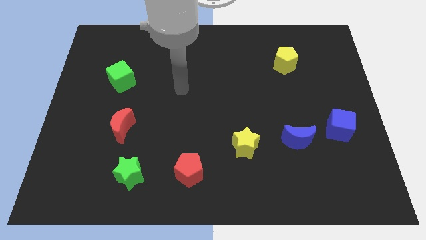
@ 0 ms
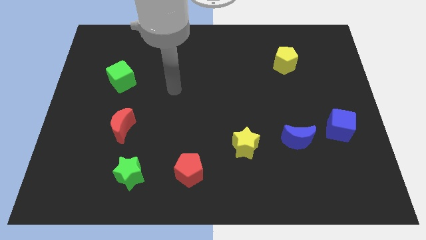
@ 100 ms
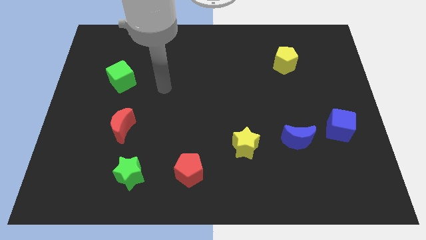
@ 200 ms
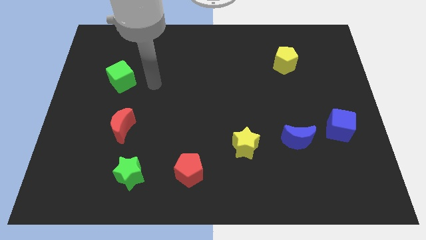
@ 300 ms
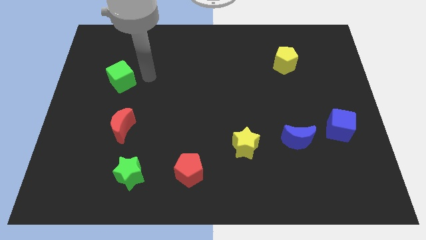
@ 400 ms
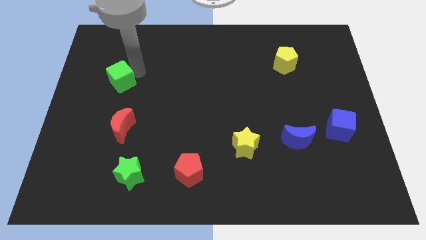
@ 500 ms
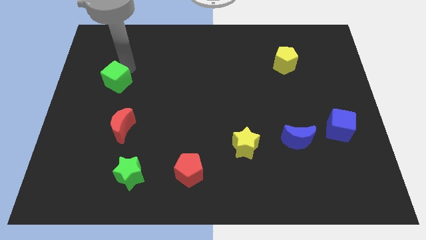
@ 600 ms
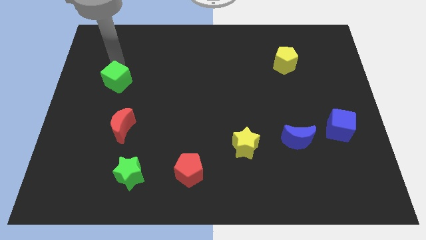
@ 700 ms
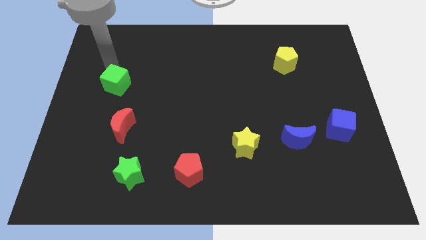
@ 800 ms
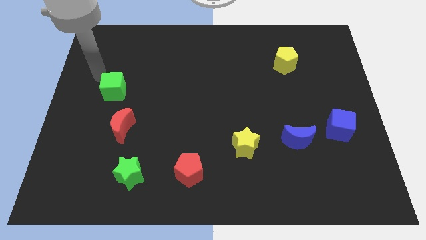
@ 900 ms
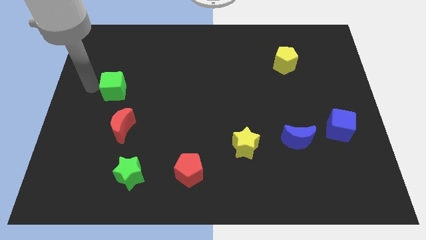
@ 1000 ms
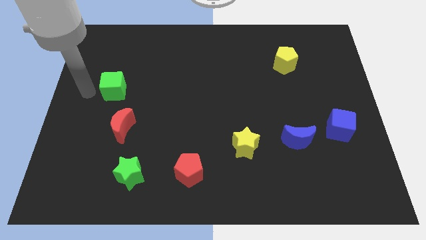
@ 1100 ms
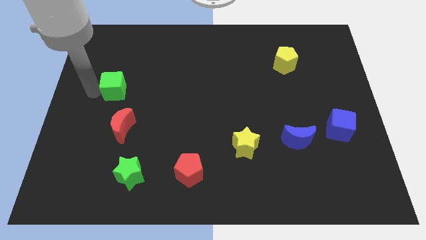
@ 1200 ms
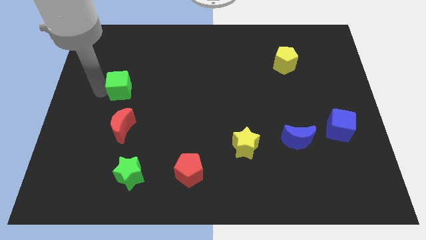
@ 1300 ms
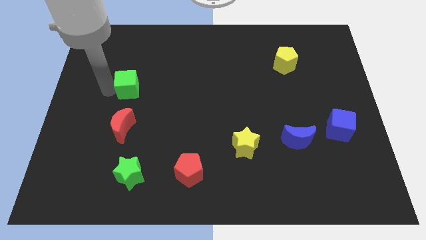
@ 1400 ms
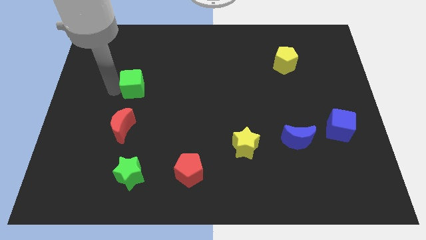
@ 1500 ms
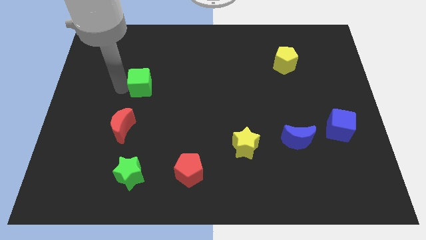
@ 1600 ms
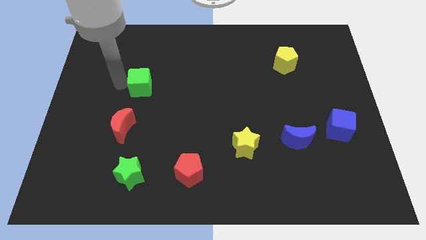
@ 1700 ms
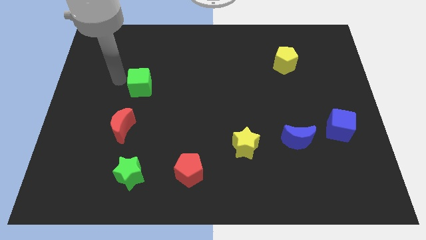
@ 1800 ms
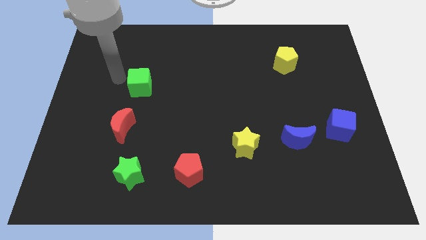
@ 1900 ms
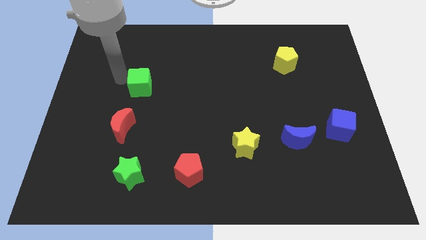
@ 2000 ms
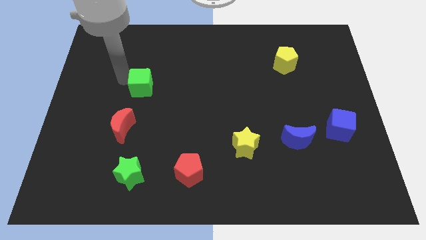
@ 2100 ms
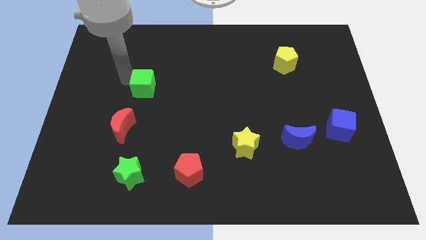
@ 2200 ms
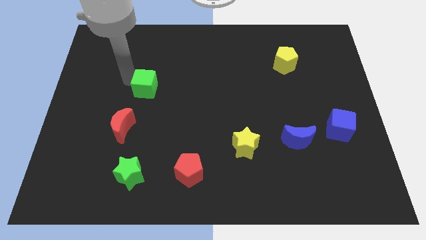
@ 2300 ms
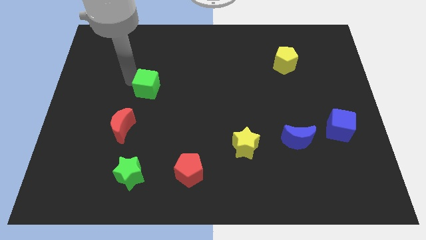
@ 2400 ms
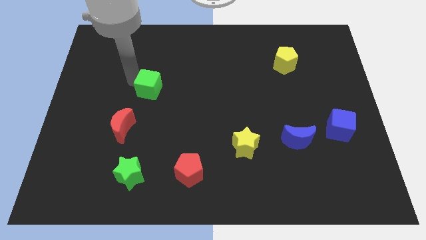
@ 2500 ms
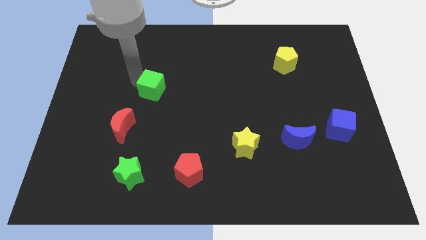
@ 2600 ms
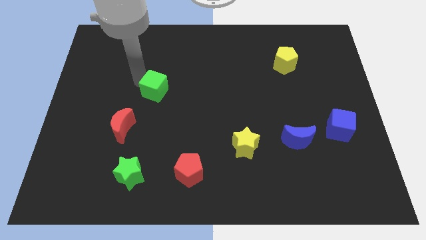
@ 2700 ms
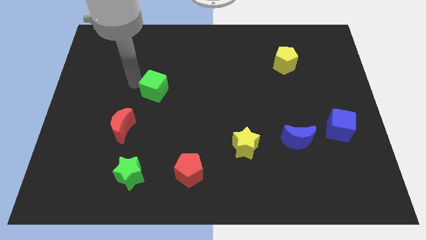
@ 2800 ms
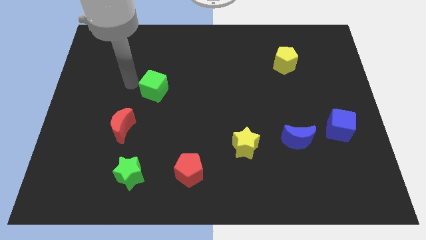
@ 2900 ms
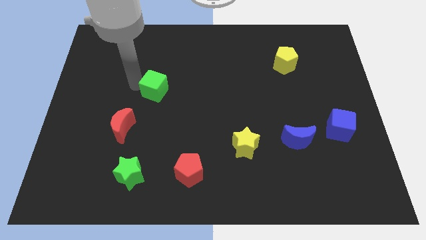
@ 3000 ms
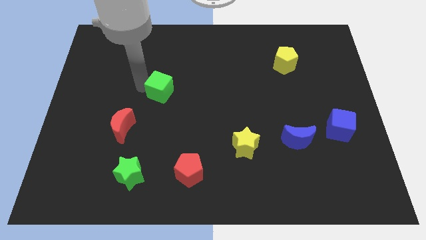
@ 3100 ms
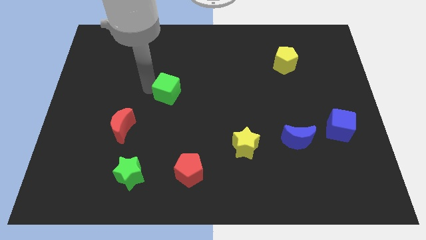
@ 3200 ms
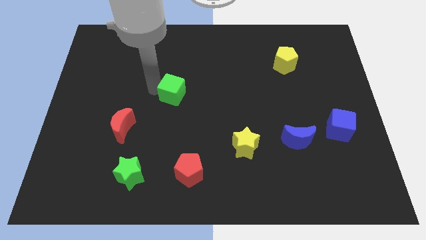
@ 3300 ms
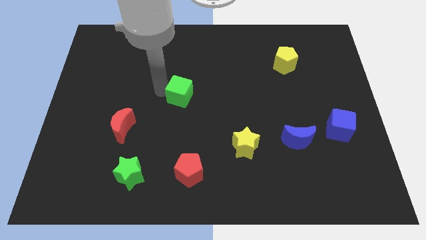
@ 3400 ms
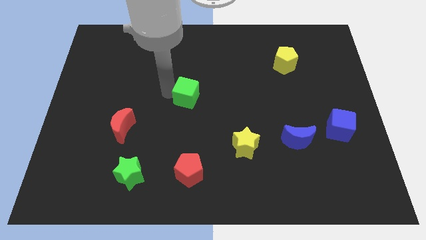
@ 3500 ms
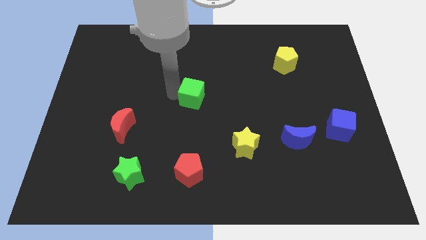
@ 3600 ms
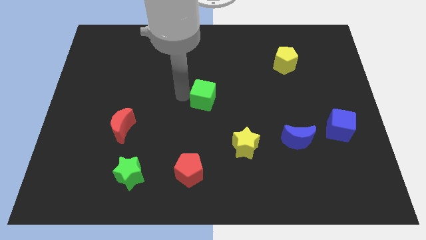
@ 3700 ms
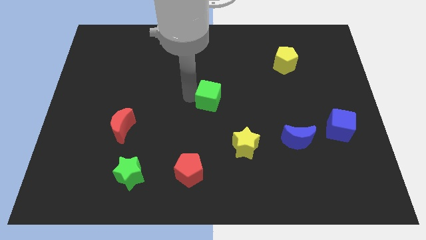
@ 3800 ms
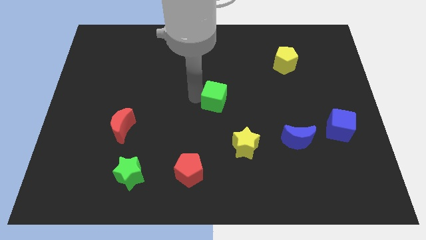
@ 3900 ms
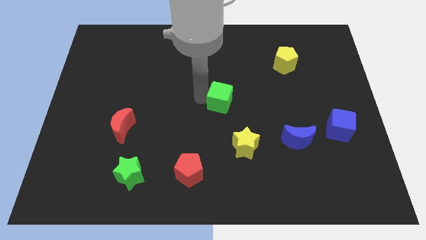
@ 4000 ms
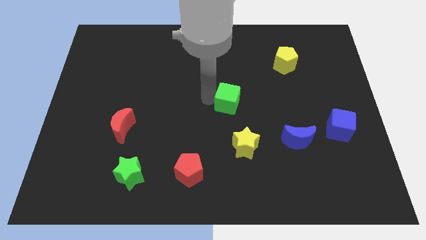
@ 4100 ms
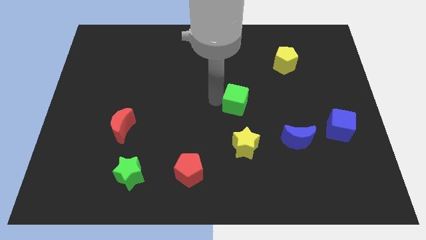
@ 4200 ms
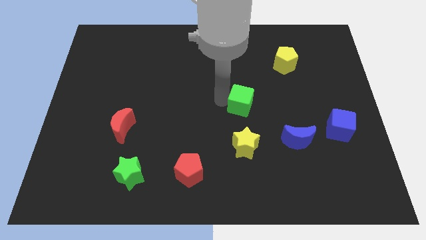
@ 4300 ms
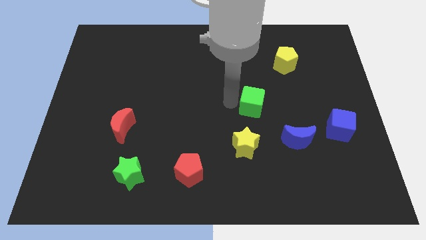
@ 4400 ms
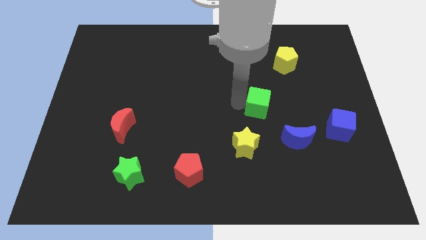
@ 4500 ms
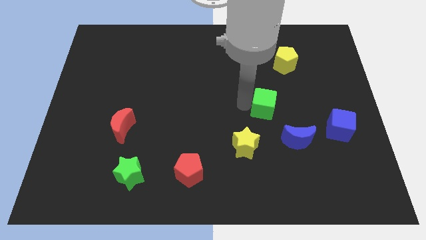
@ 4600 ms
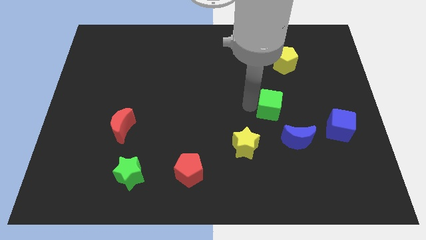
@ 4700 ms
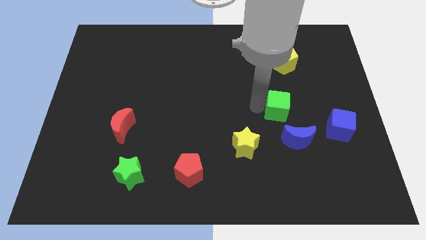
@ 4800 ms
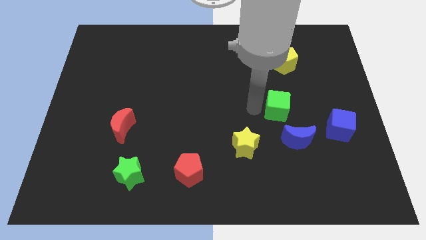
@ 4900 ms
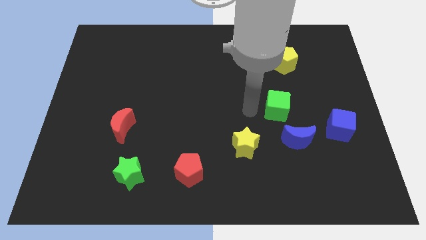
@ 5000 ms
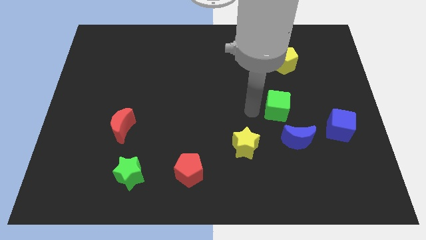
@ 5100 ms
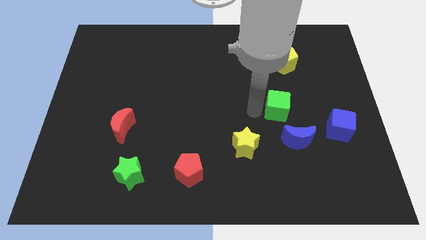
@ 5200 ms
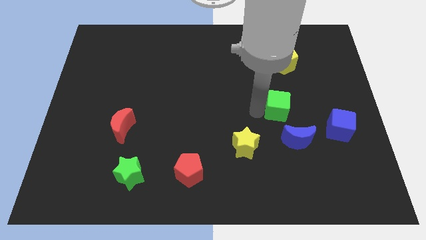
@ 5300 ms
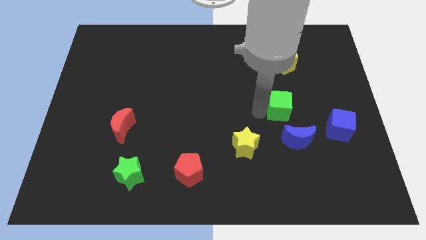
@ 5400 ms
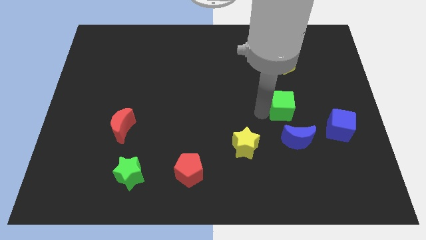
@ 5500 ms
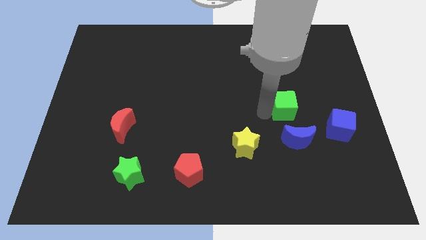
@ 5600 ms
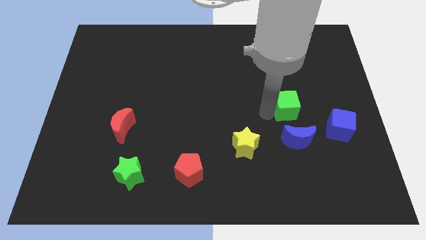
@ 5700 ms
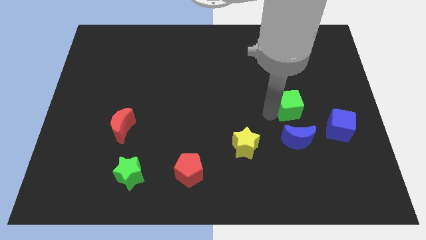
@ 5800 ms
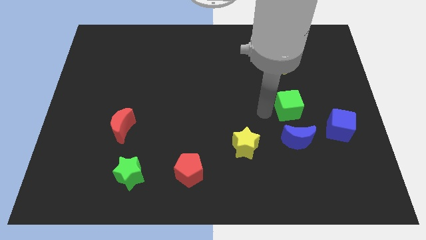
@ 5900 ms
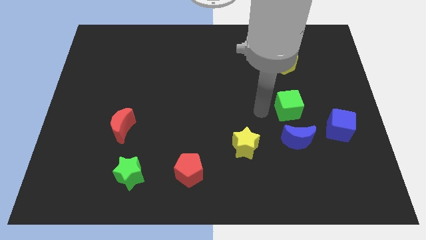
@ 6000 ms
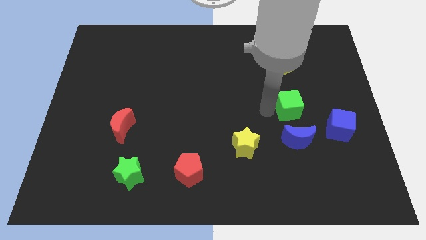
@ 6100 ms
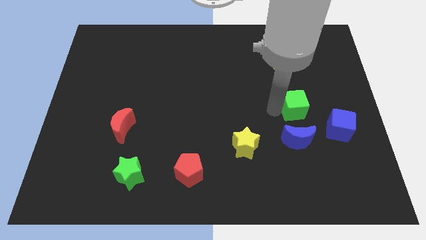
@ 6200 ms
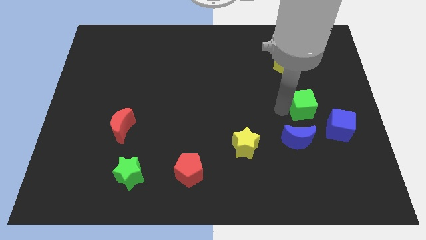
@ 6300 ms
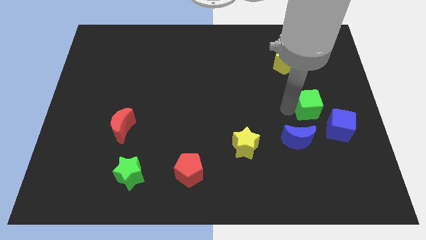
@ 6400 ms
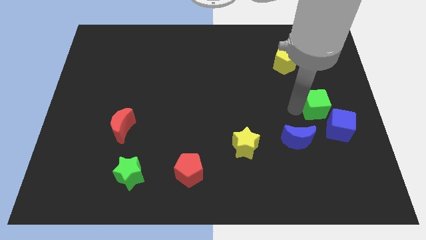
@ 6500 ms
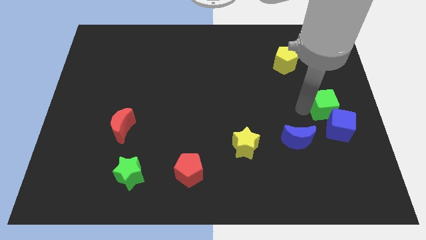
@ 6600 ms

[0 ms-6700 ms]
push the green cube to the center right
